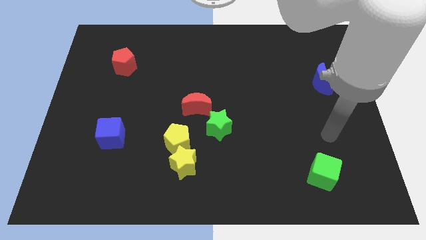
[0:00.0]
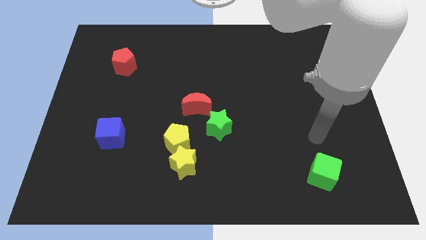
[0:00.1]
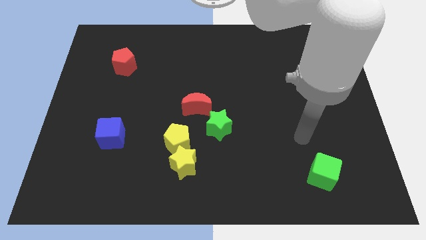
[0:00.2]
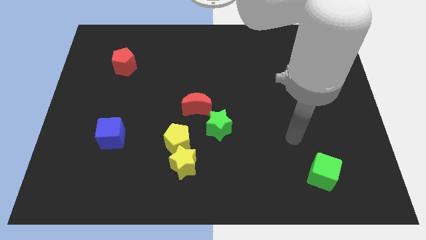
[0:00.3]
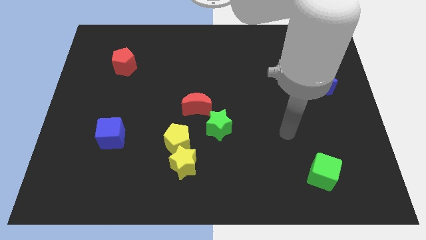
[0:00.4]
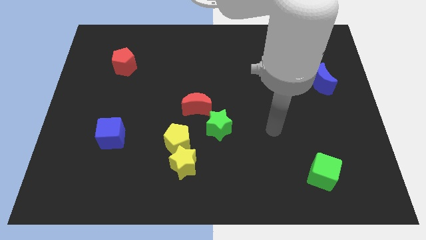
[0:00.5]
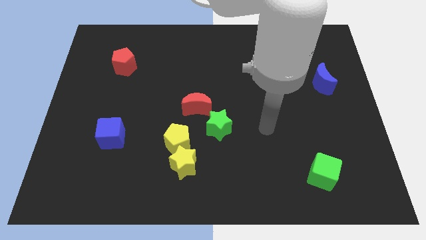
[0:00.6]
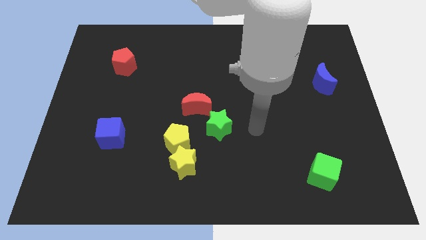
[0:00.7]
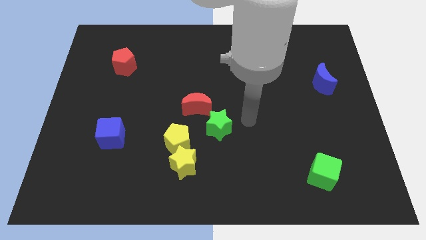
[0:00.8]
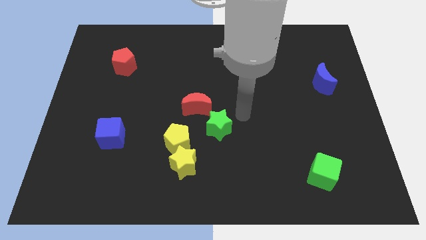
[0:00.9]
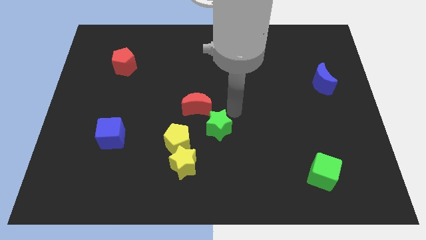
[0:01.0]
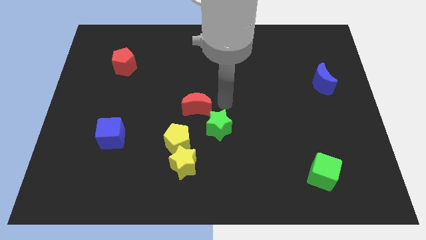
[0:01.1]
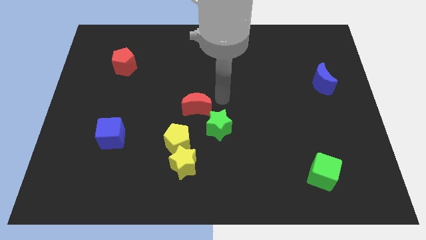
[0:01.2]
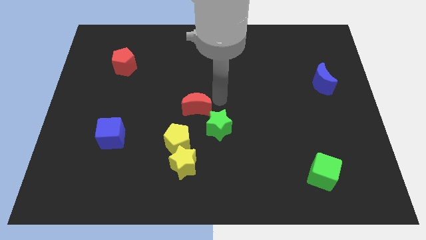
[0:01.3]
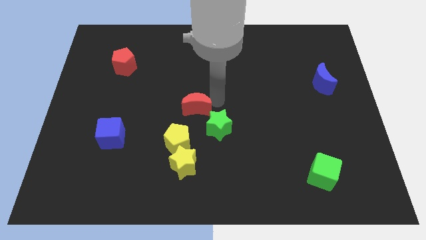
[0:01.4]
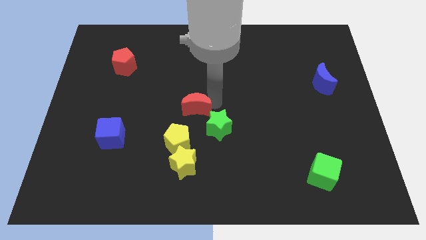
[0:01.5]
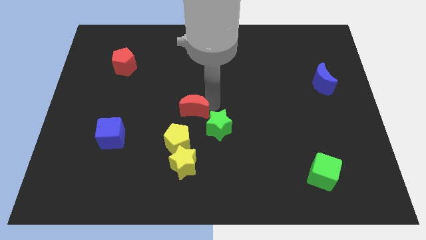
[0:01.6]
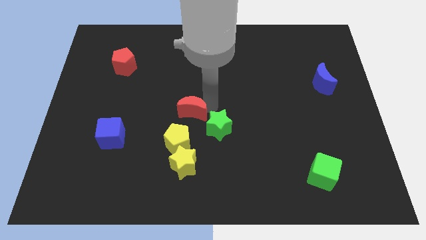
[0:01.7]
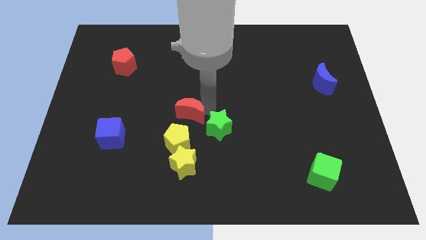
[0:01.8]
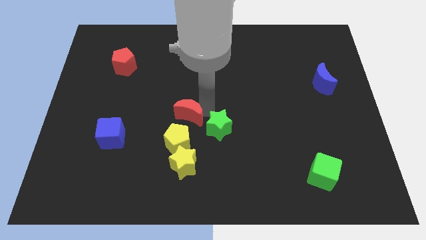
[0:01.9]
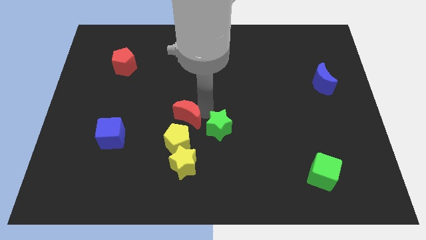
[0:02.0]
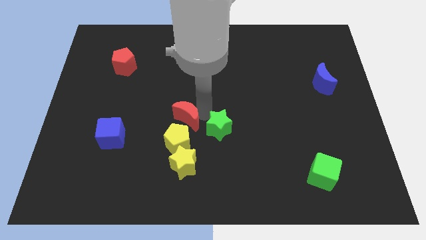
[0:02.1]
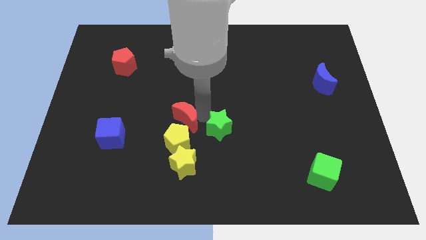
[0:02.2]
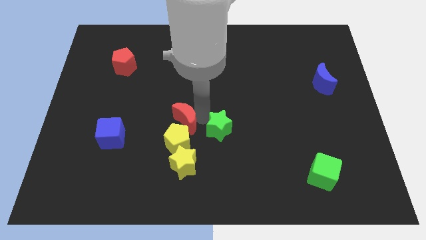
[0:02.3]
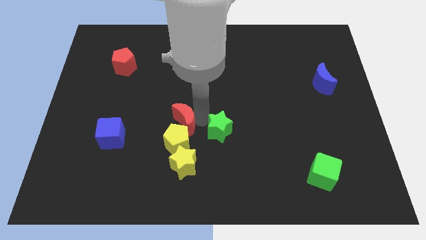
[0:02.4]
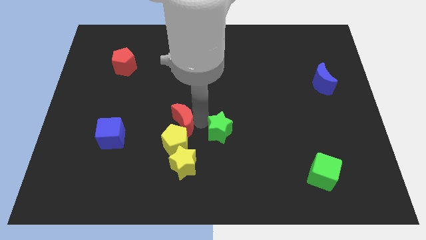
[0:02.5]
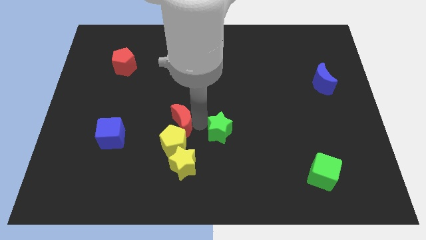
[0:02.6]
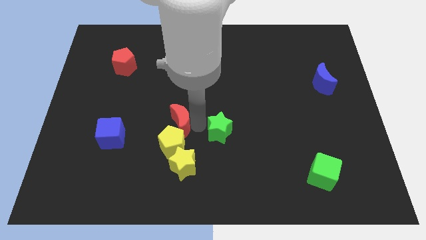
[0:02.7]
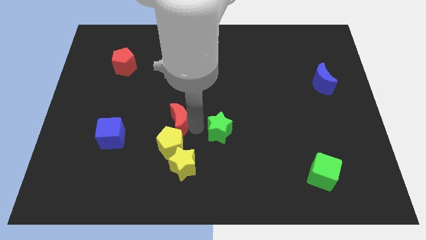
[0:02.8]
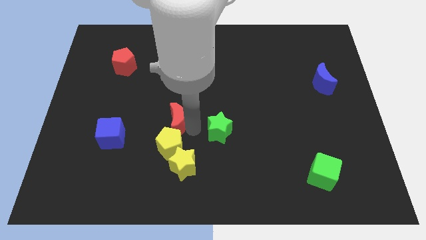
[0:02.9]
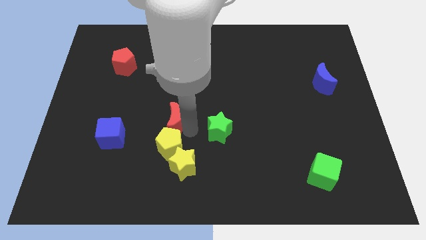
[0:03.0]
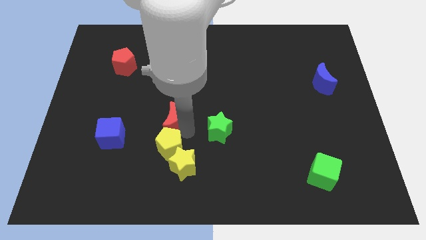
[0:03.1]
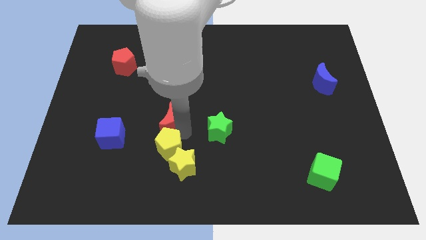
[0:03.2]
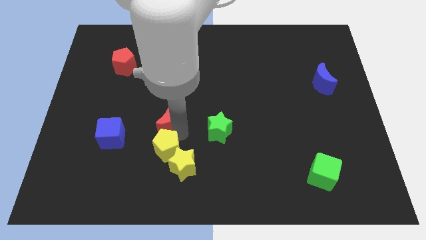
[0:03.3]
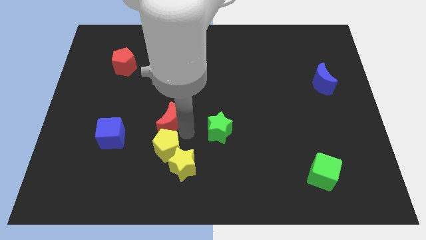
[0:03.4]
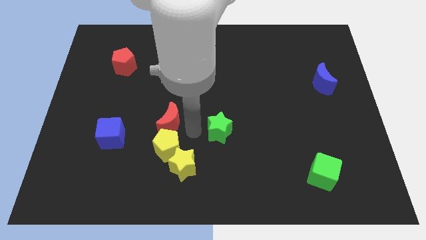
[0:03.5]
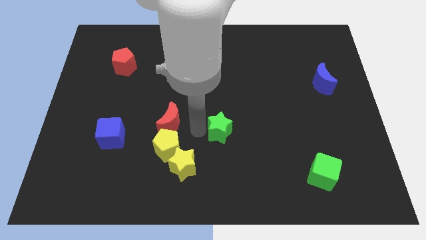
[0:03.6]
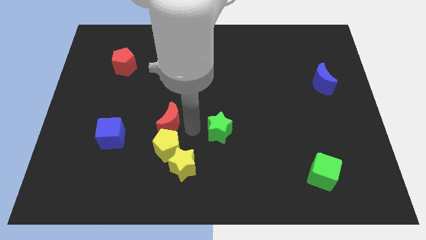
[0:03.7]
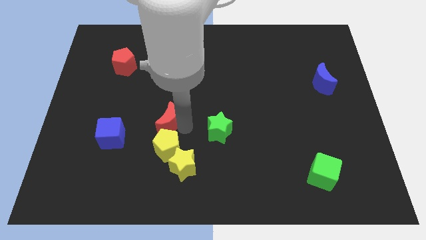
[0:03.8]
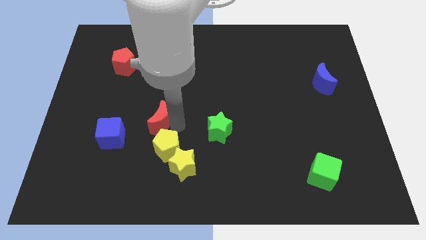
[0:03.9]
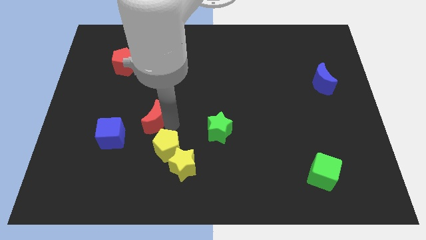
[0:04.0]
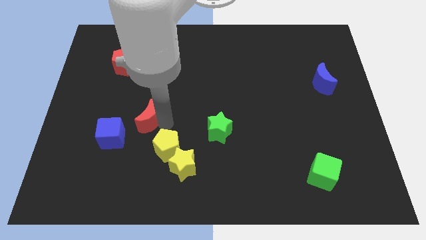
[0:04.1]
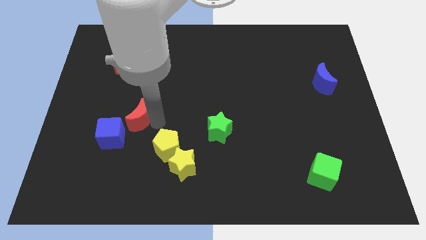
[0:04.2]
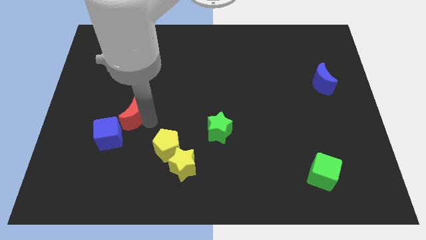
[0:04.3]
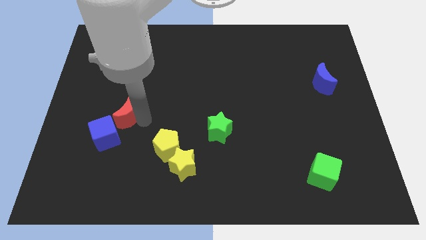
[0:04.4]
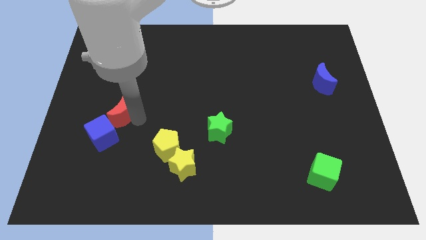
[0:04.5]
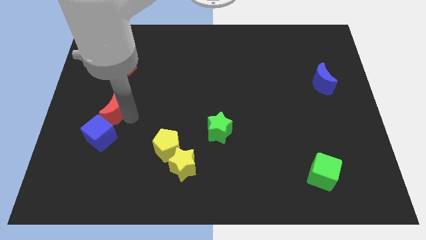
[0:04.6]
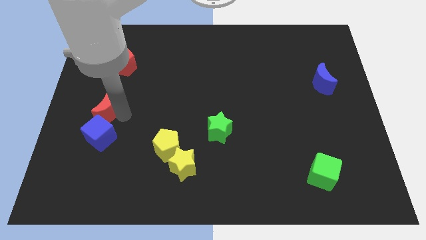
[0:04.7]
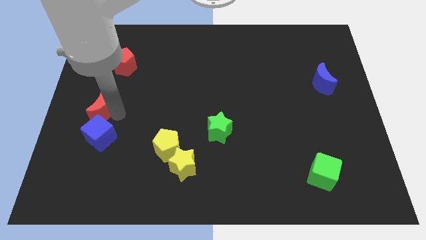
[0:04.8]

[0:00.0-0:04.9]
move the red moon to the left side of the board

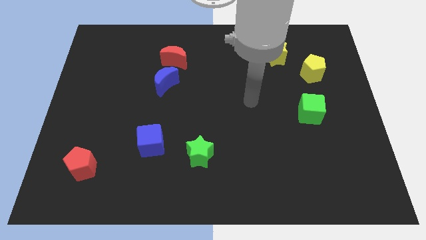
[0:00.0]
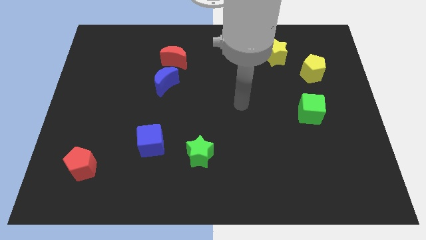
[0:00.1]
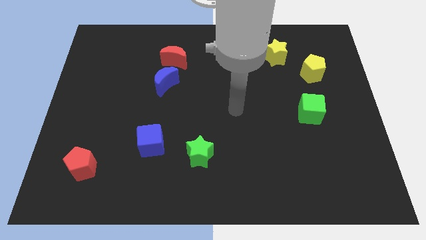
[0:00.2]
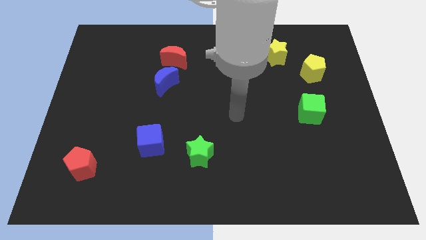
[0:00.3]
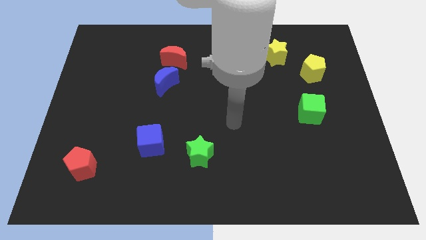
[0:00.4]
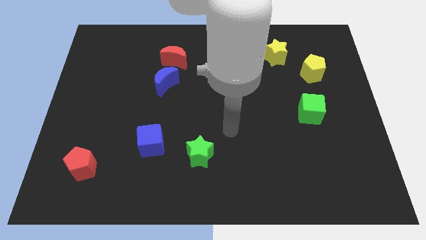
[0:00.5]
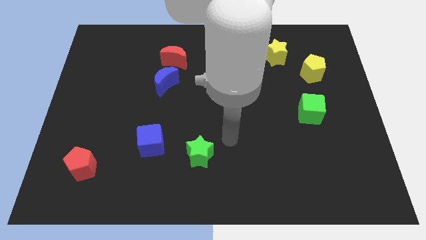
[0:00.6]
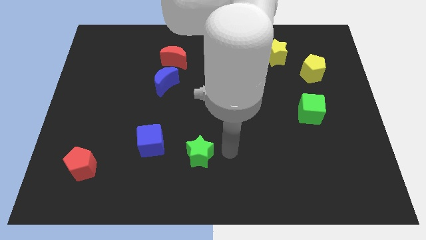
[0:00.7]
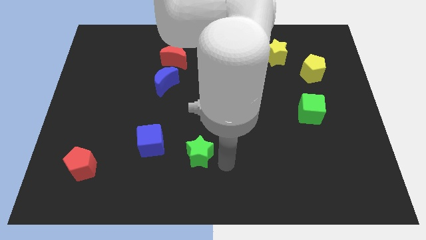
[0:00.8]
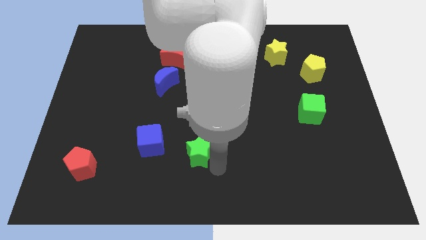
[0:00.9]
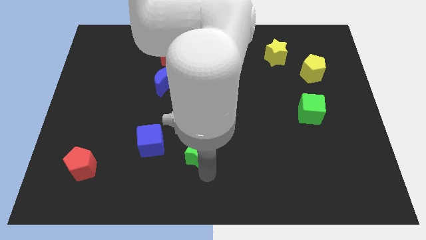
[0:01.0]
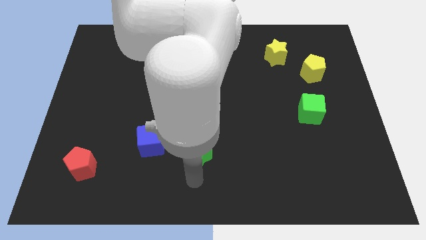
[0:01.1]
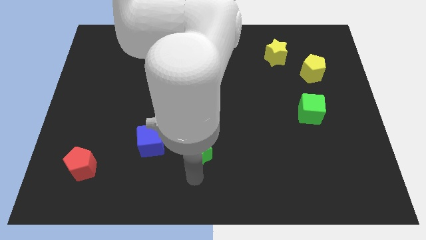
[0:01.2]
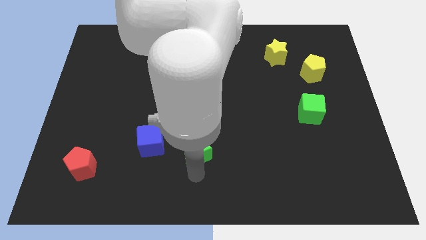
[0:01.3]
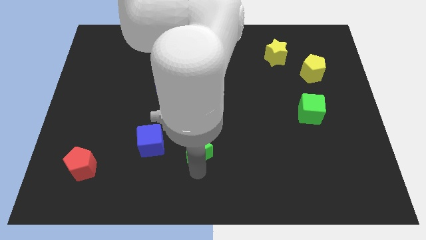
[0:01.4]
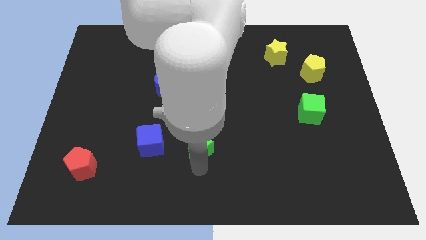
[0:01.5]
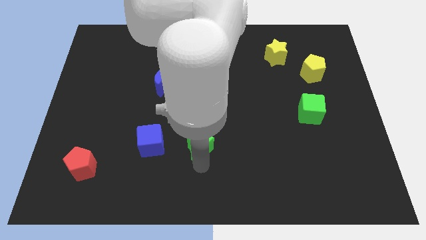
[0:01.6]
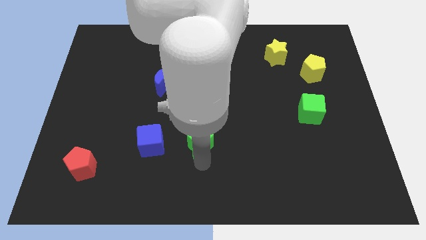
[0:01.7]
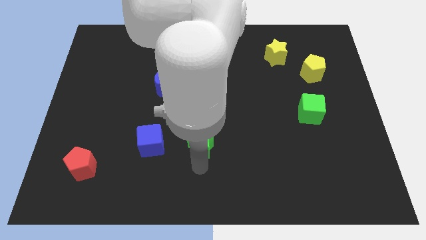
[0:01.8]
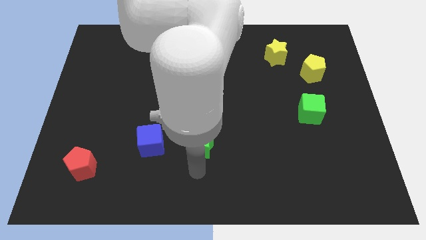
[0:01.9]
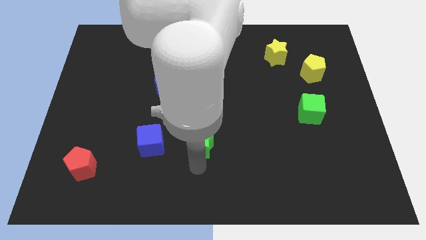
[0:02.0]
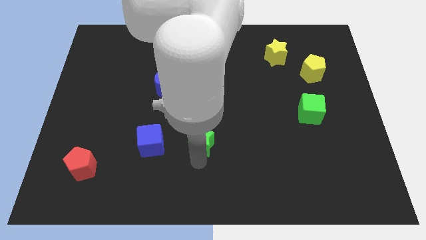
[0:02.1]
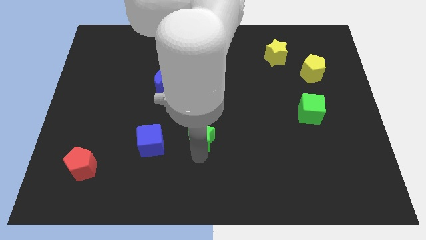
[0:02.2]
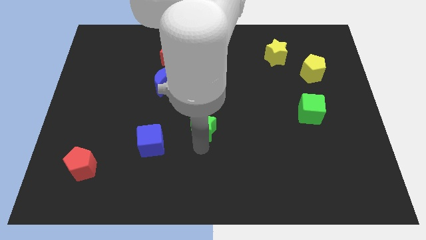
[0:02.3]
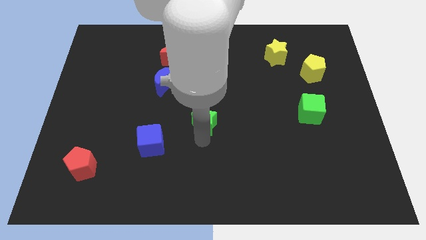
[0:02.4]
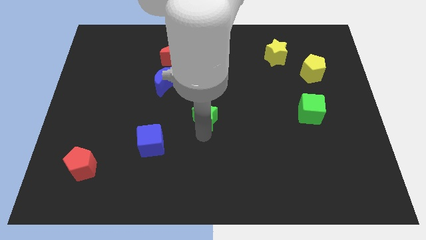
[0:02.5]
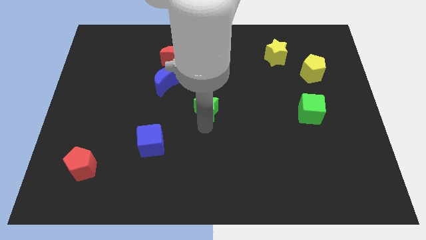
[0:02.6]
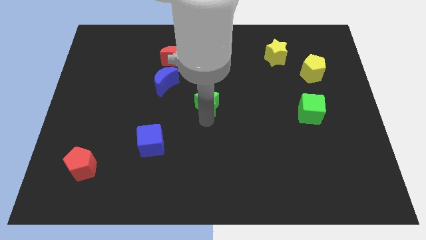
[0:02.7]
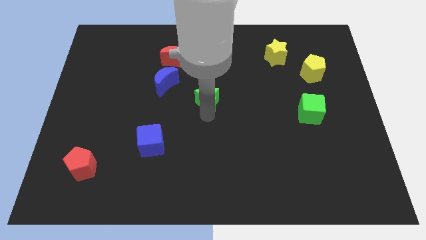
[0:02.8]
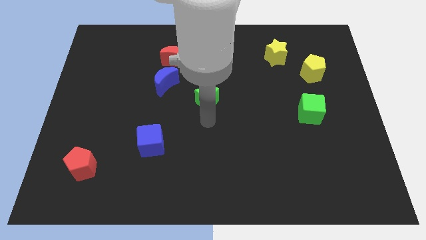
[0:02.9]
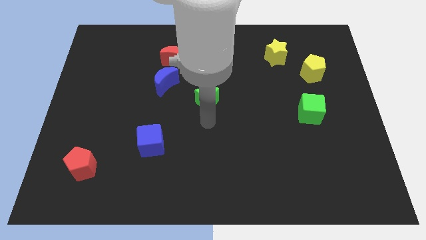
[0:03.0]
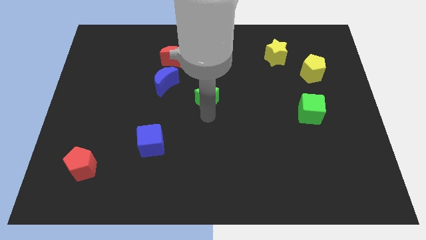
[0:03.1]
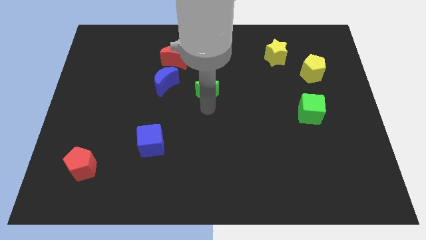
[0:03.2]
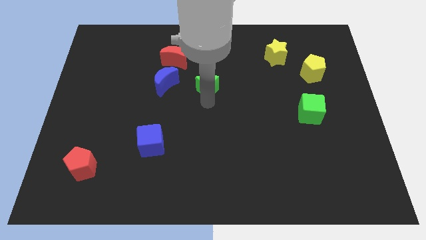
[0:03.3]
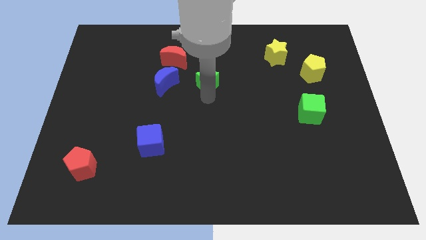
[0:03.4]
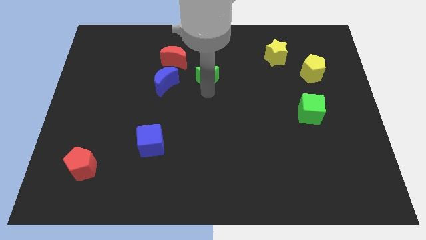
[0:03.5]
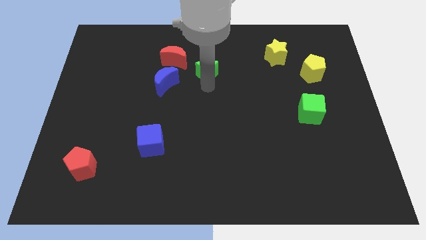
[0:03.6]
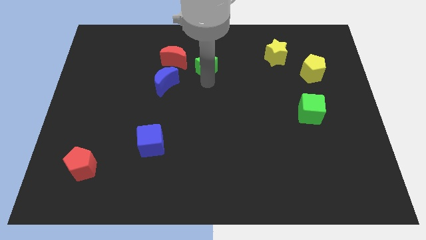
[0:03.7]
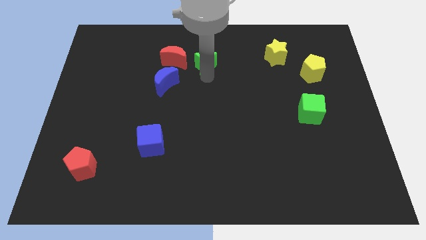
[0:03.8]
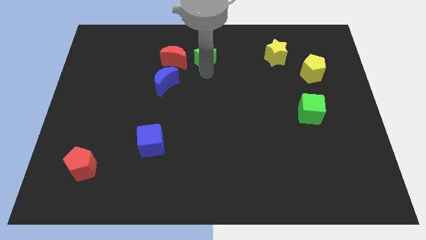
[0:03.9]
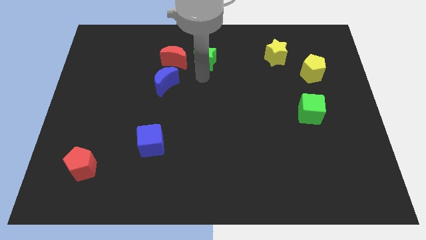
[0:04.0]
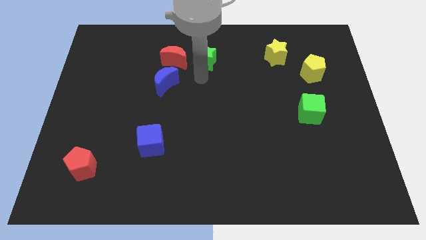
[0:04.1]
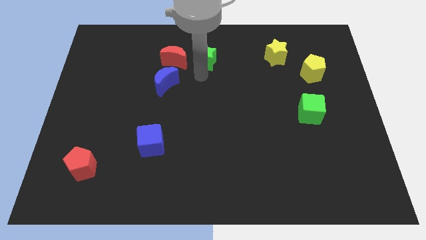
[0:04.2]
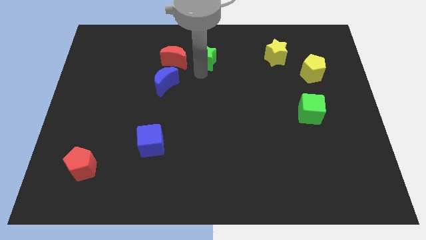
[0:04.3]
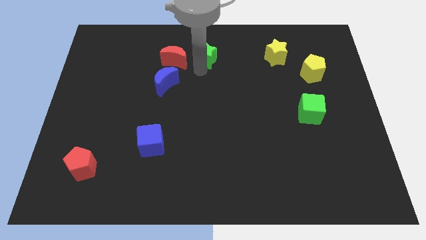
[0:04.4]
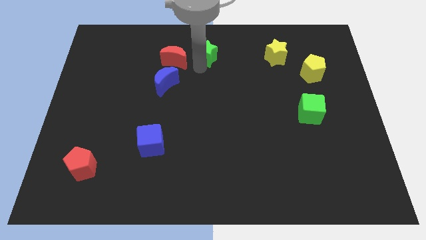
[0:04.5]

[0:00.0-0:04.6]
move the green star to the top side
